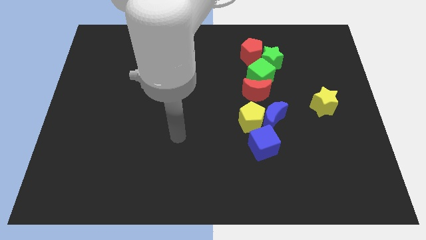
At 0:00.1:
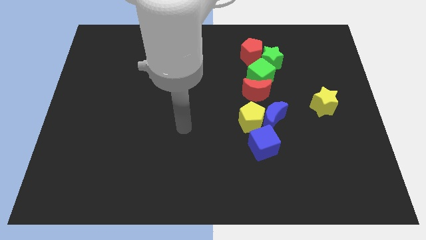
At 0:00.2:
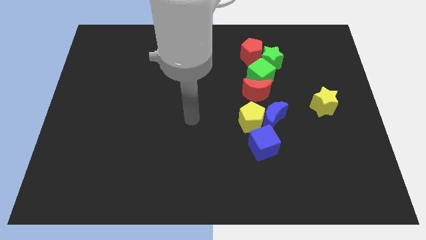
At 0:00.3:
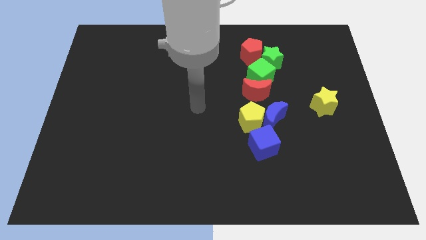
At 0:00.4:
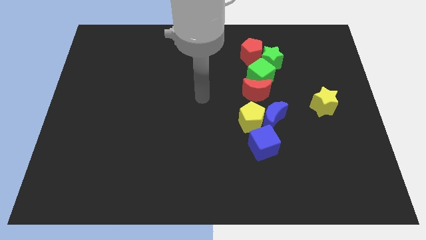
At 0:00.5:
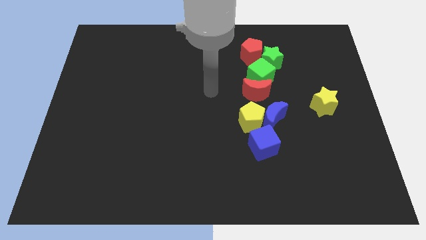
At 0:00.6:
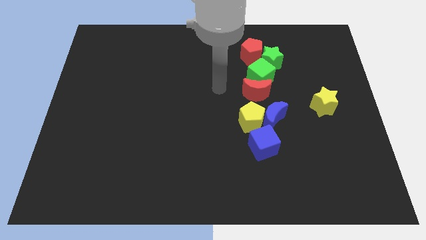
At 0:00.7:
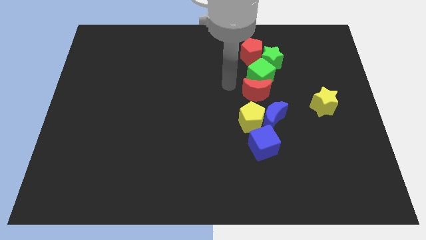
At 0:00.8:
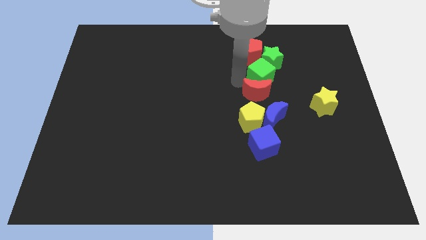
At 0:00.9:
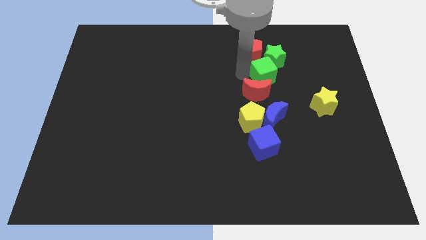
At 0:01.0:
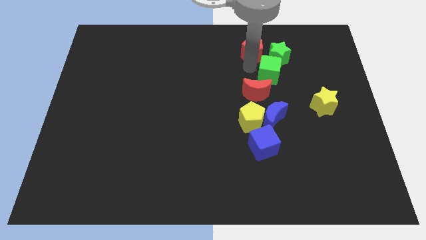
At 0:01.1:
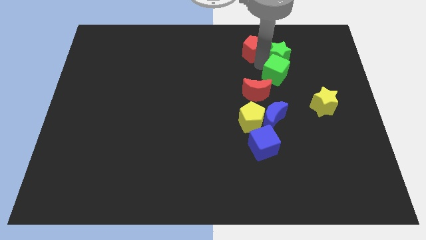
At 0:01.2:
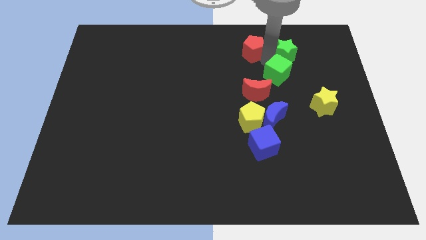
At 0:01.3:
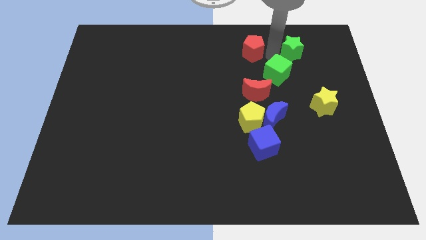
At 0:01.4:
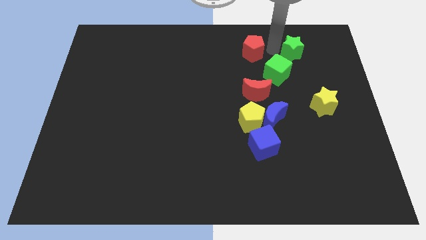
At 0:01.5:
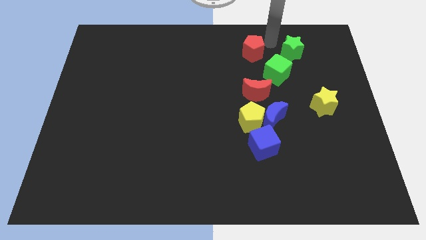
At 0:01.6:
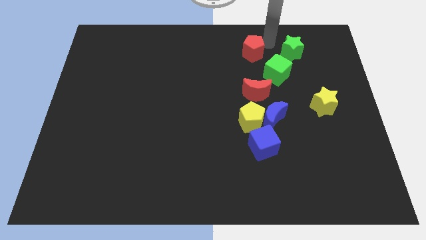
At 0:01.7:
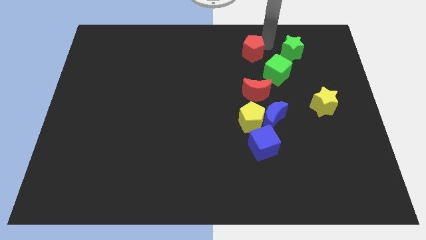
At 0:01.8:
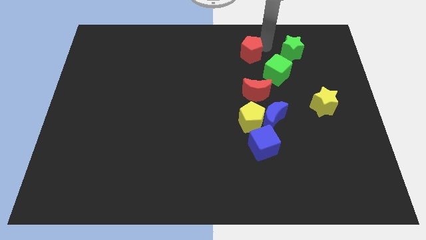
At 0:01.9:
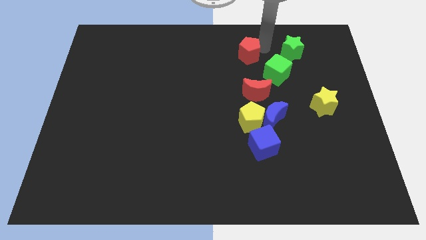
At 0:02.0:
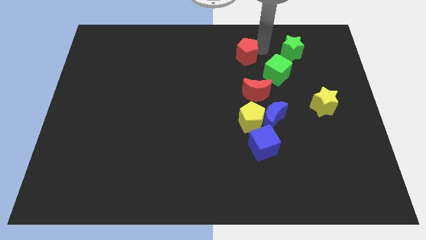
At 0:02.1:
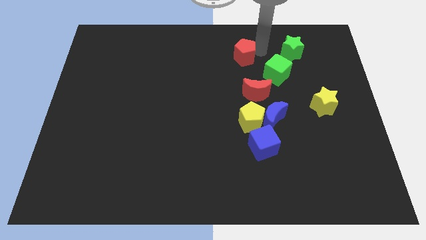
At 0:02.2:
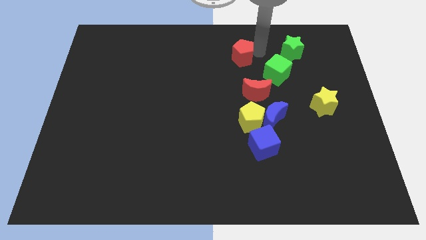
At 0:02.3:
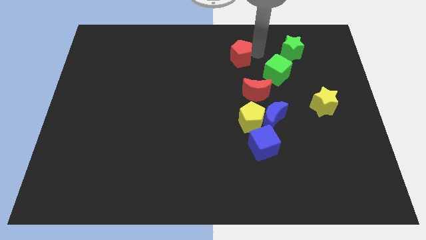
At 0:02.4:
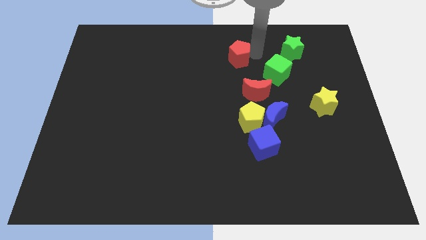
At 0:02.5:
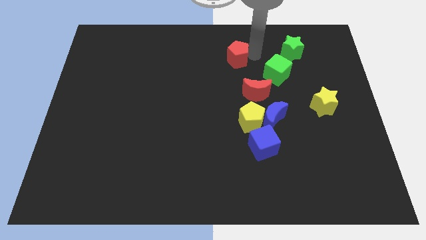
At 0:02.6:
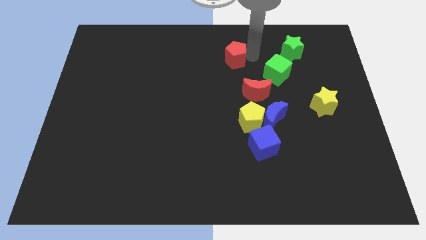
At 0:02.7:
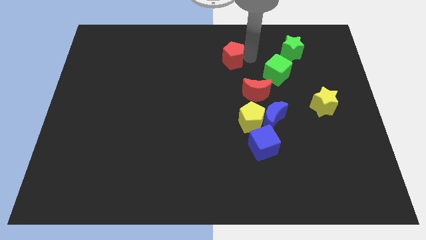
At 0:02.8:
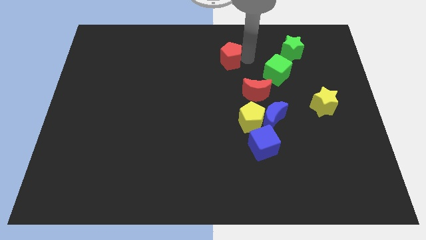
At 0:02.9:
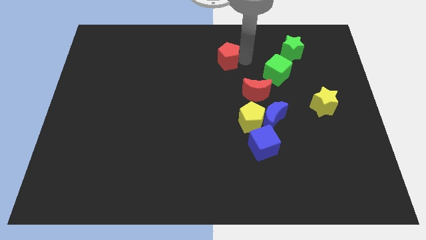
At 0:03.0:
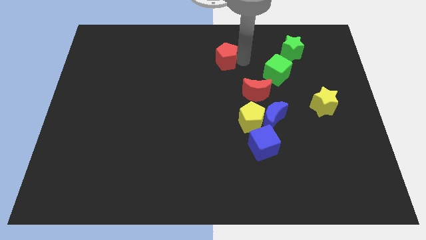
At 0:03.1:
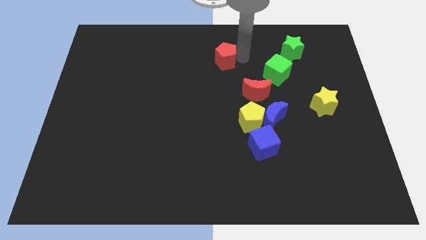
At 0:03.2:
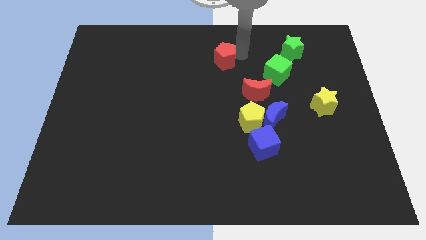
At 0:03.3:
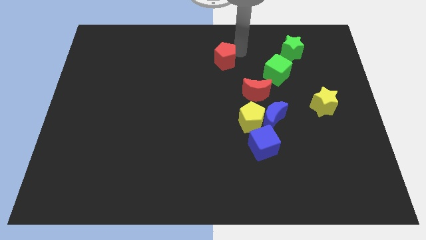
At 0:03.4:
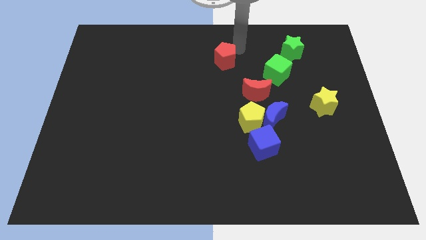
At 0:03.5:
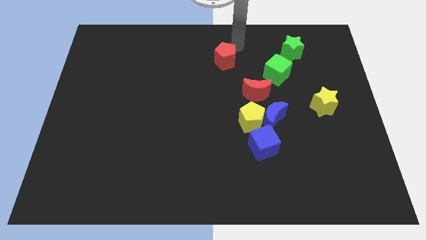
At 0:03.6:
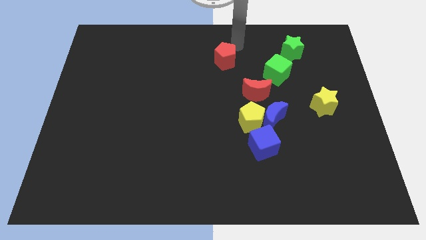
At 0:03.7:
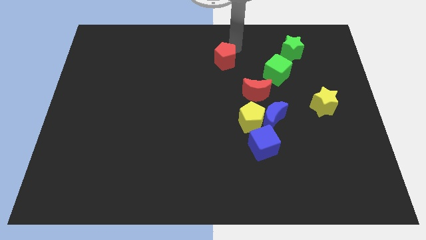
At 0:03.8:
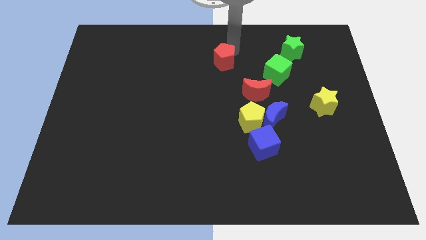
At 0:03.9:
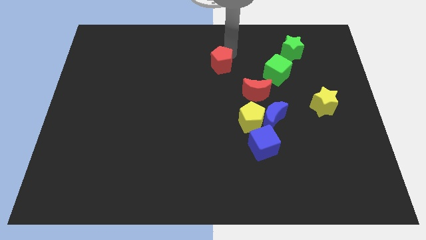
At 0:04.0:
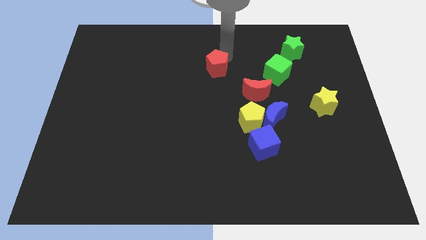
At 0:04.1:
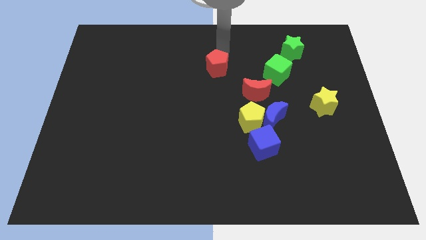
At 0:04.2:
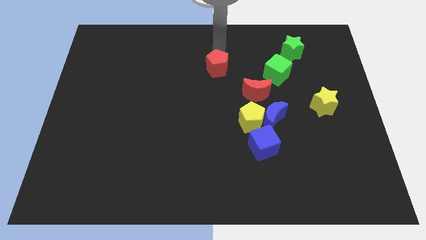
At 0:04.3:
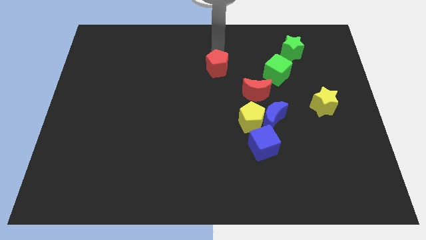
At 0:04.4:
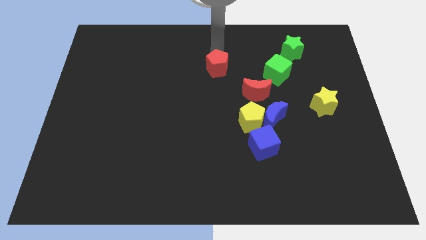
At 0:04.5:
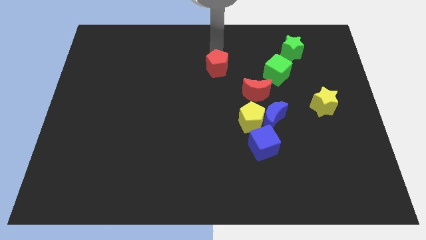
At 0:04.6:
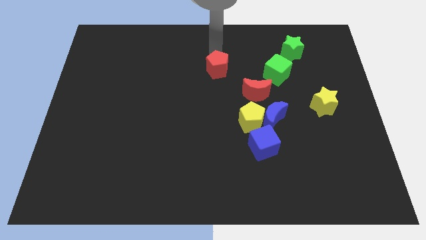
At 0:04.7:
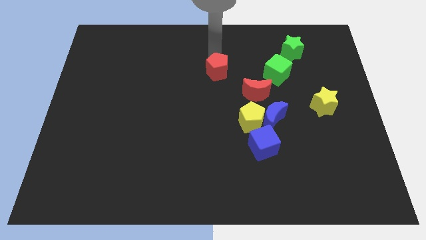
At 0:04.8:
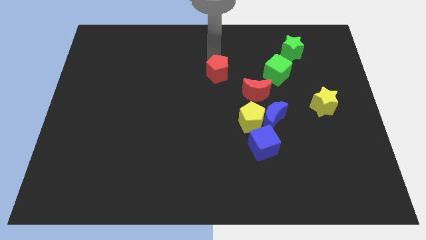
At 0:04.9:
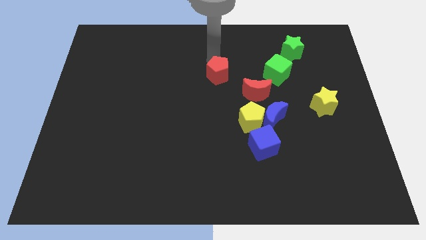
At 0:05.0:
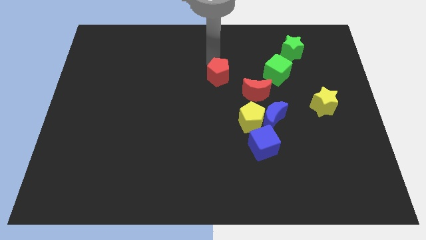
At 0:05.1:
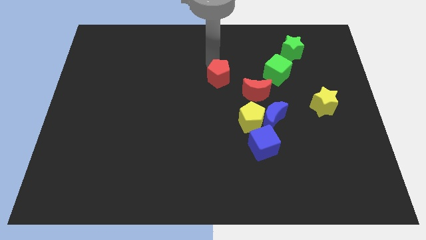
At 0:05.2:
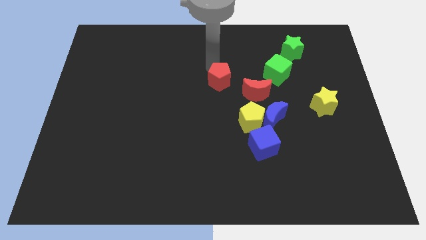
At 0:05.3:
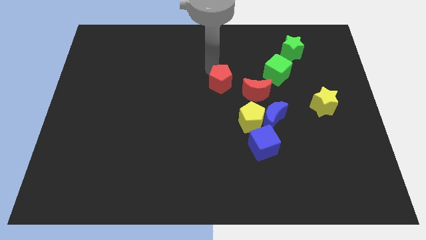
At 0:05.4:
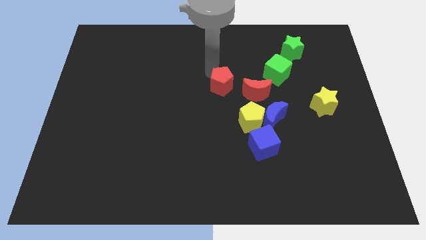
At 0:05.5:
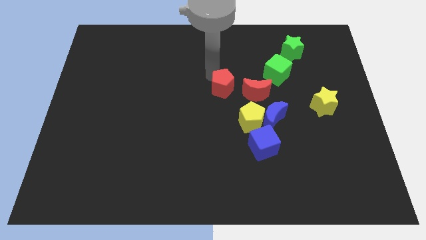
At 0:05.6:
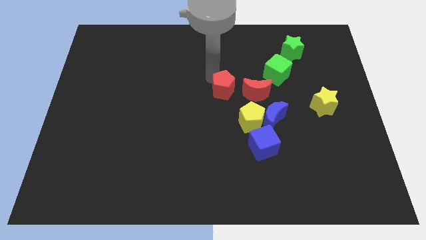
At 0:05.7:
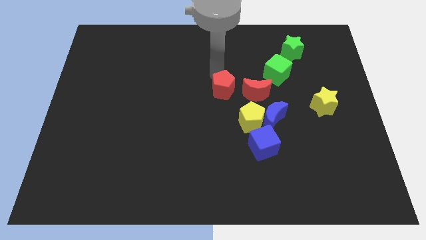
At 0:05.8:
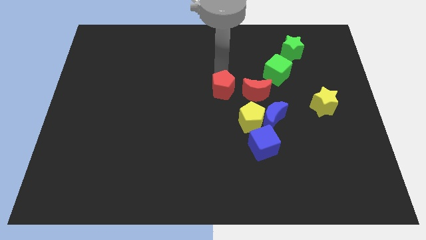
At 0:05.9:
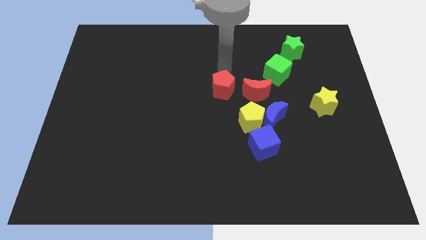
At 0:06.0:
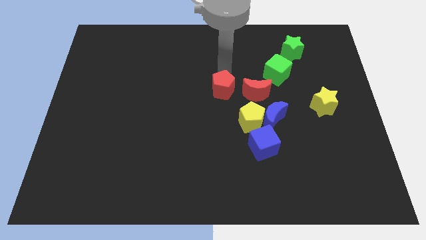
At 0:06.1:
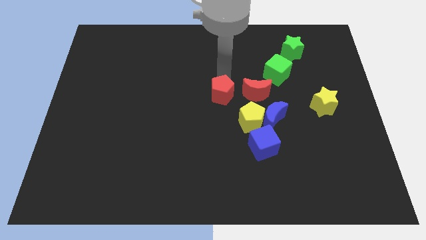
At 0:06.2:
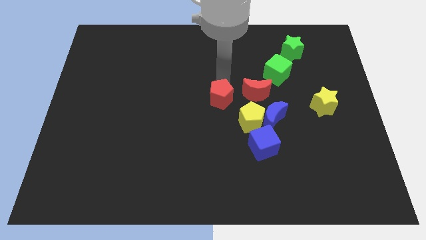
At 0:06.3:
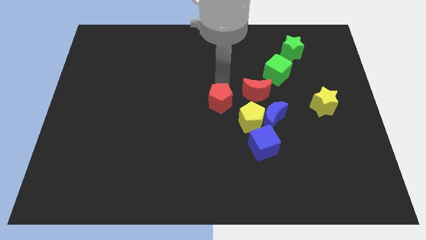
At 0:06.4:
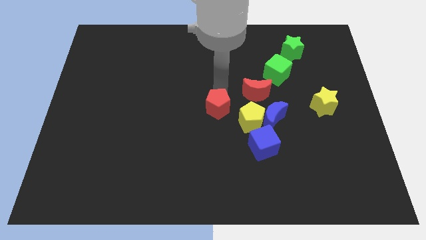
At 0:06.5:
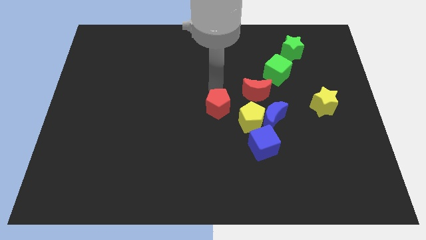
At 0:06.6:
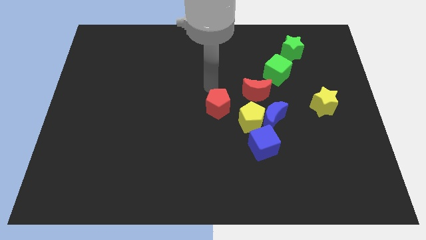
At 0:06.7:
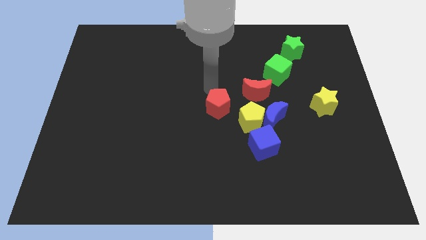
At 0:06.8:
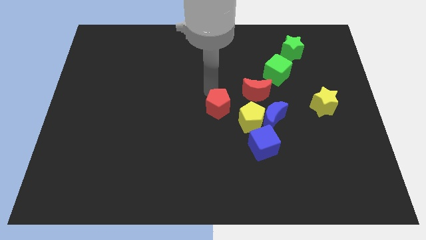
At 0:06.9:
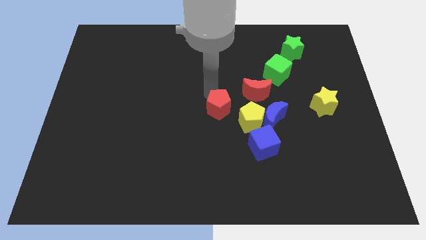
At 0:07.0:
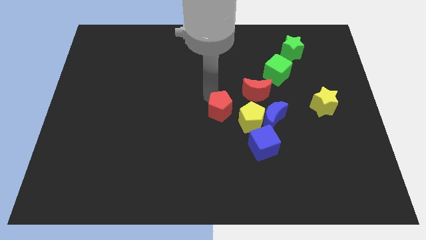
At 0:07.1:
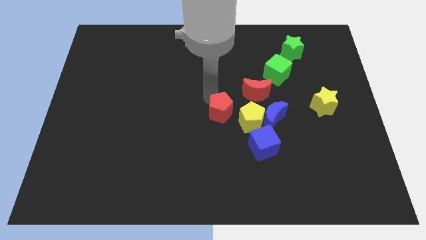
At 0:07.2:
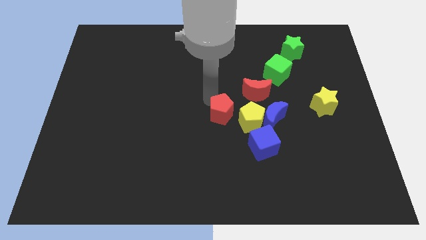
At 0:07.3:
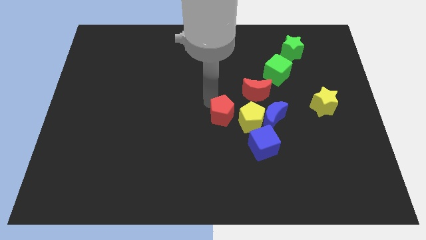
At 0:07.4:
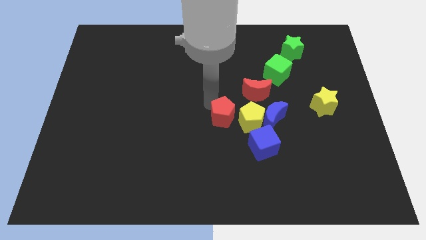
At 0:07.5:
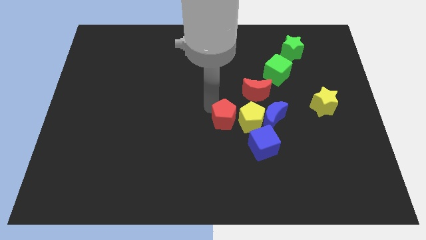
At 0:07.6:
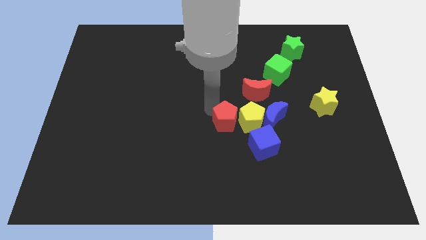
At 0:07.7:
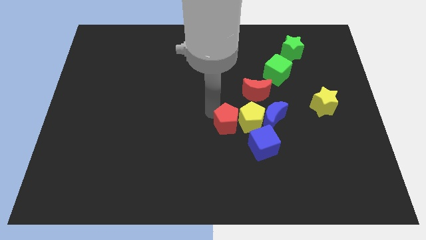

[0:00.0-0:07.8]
push the red pentagon down

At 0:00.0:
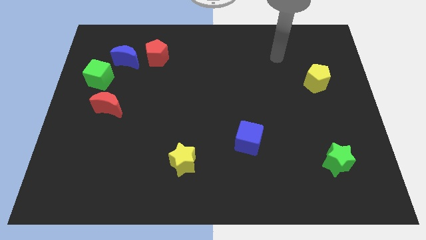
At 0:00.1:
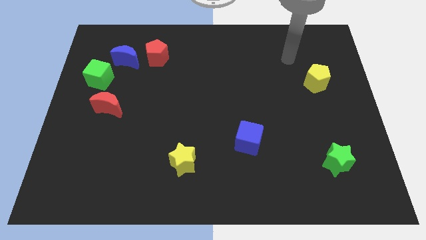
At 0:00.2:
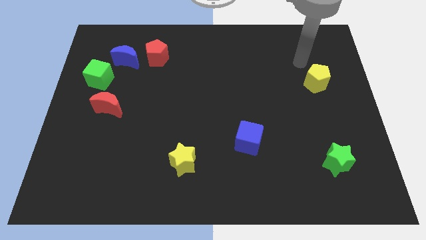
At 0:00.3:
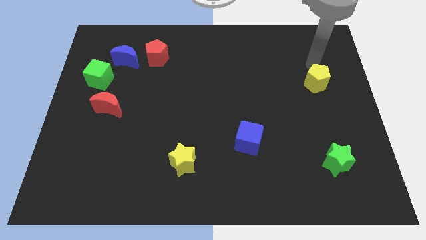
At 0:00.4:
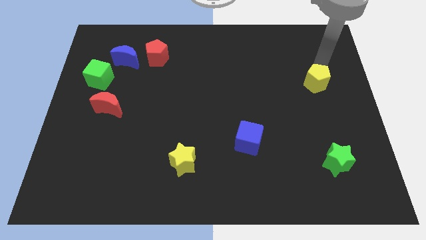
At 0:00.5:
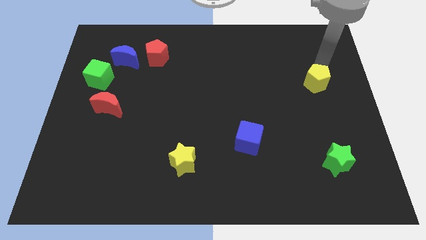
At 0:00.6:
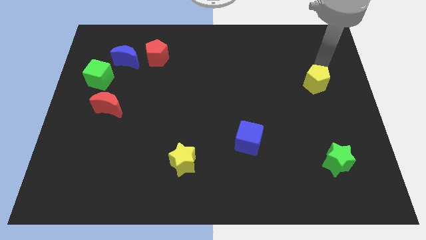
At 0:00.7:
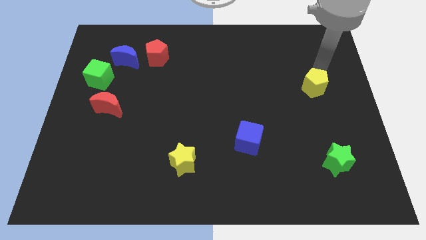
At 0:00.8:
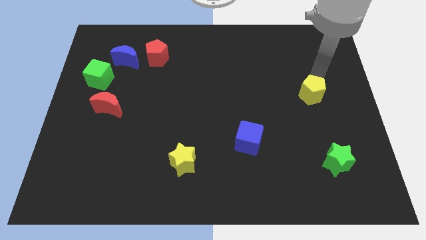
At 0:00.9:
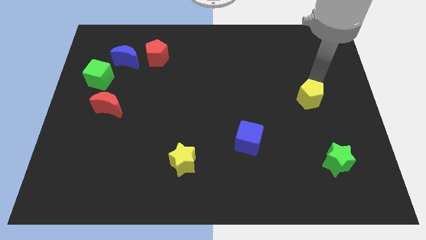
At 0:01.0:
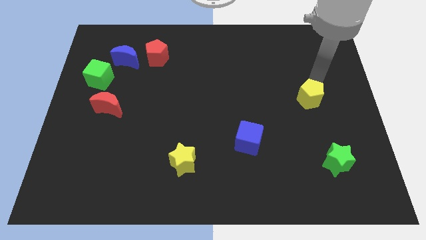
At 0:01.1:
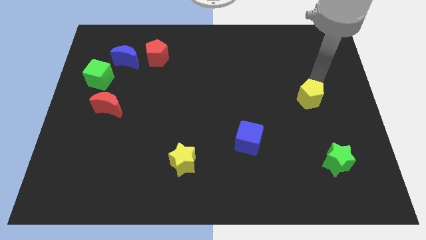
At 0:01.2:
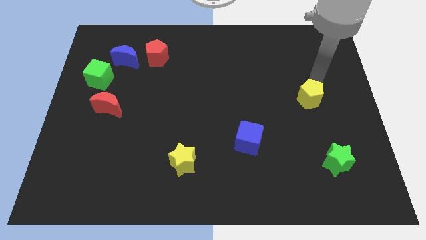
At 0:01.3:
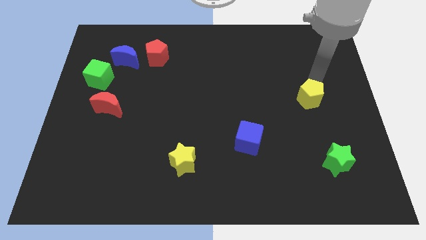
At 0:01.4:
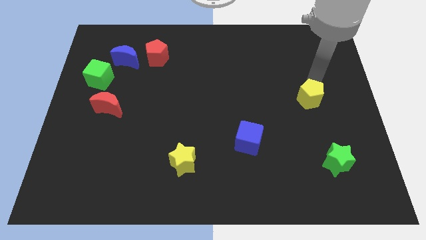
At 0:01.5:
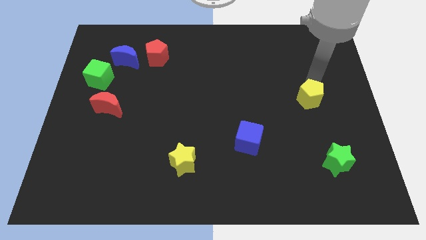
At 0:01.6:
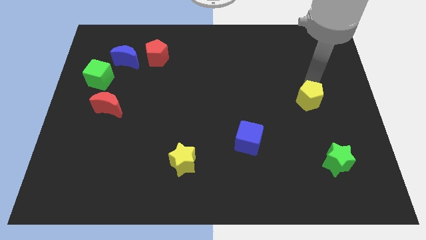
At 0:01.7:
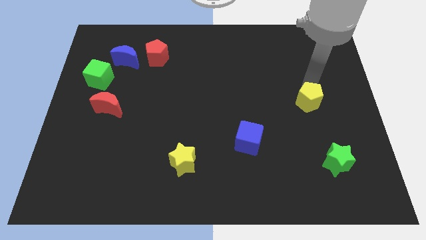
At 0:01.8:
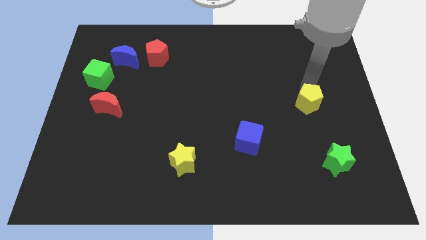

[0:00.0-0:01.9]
slightly move the yellow pentagon down and then left
